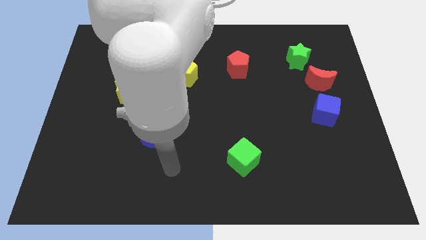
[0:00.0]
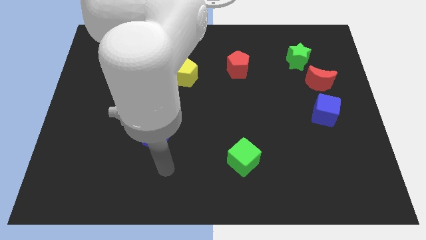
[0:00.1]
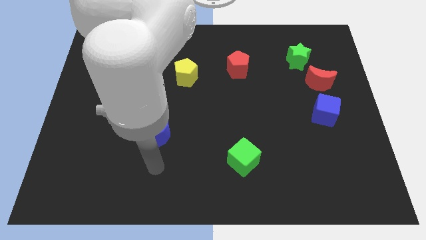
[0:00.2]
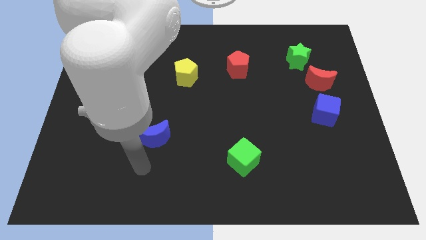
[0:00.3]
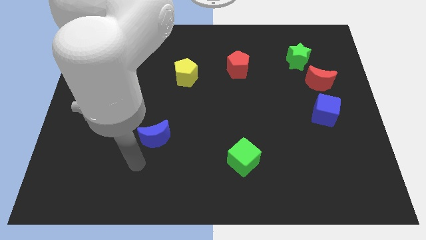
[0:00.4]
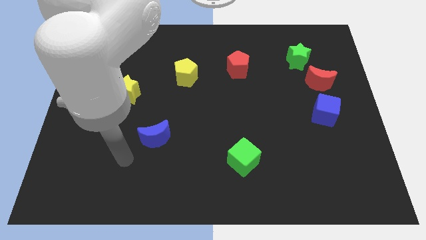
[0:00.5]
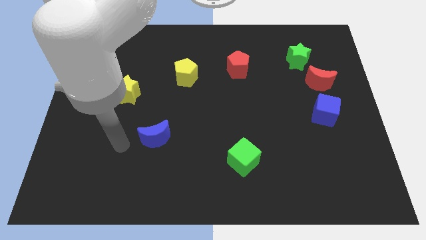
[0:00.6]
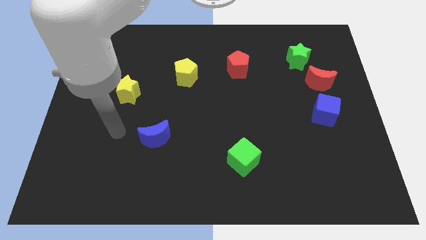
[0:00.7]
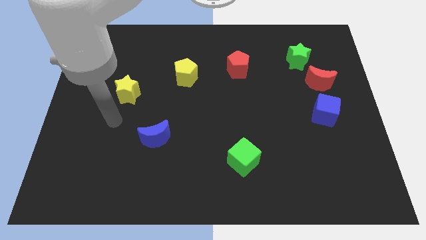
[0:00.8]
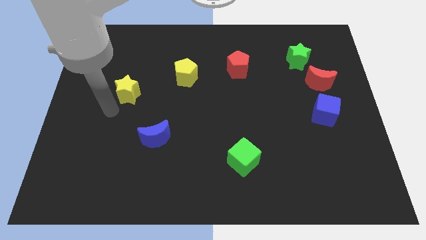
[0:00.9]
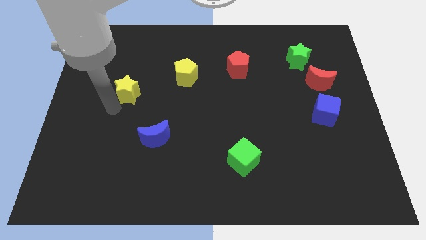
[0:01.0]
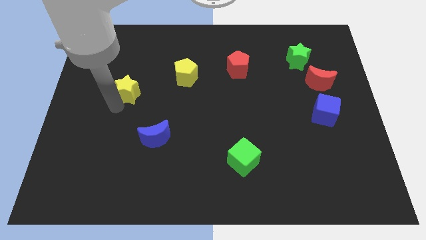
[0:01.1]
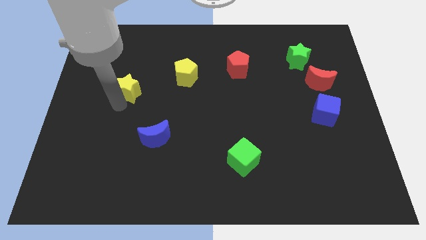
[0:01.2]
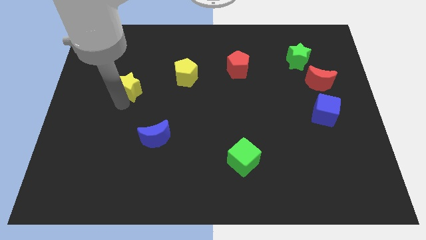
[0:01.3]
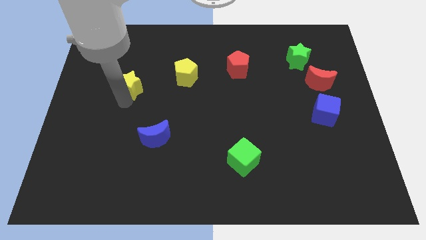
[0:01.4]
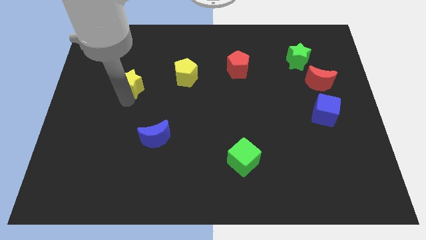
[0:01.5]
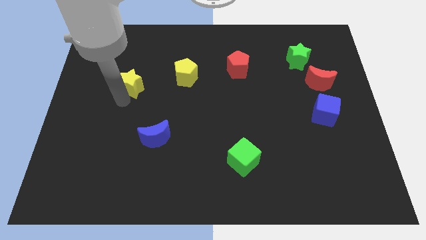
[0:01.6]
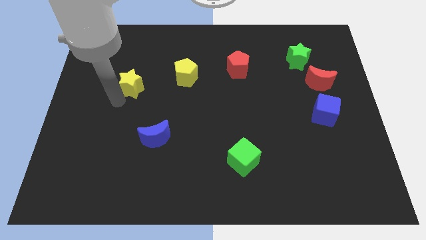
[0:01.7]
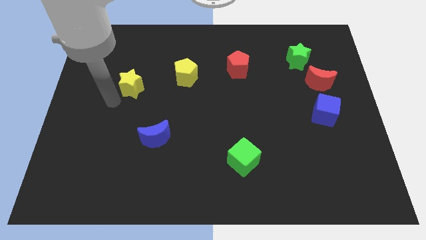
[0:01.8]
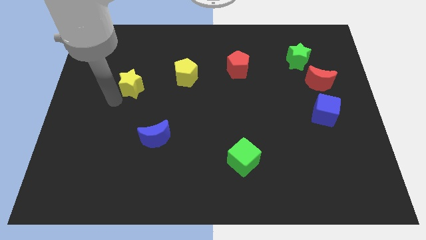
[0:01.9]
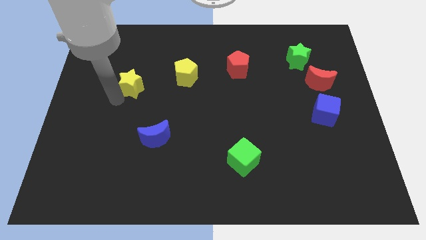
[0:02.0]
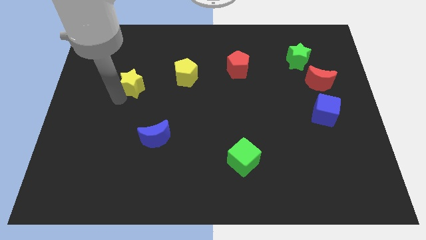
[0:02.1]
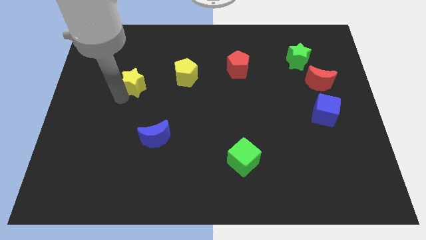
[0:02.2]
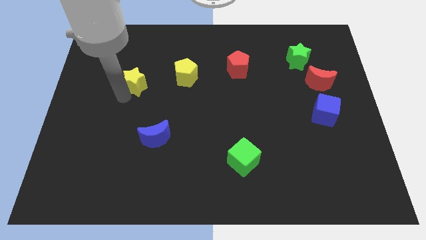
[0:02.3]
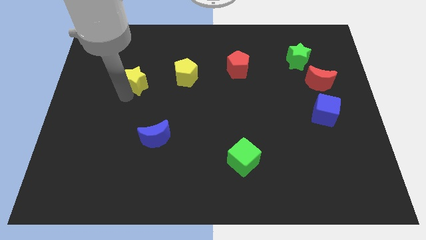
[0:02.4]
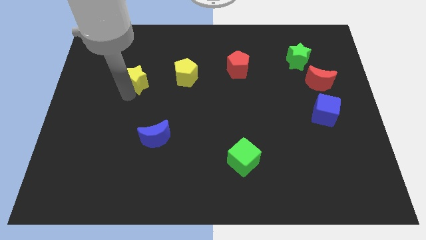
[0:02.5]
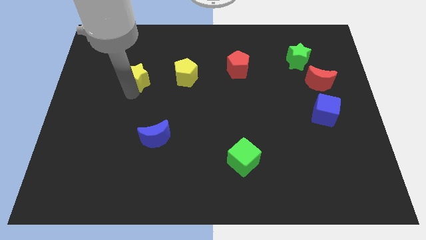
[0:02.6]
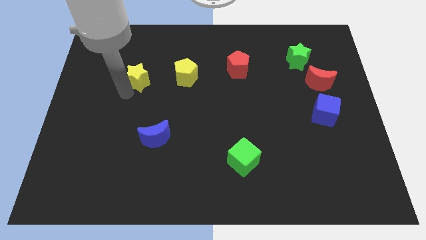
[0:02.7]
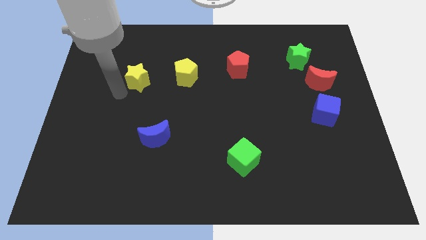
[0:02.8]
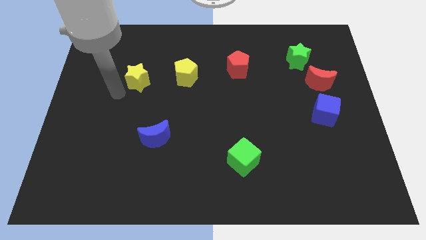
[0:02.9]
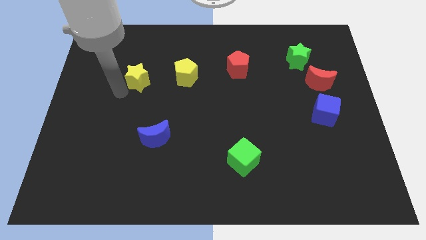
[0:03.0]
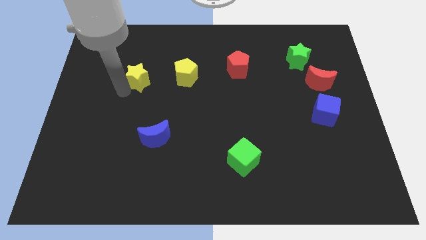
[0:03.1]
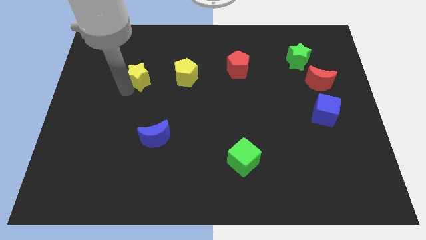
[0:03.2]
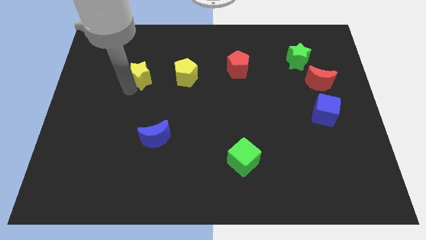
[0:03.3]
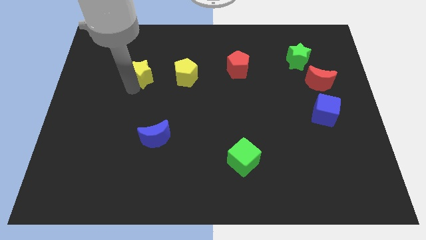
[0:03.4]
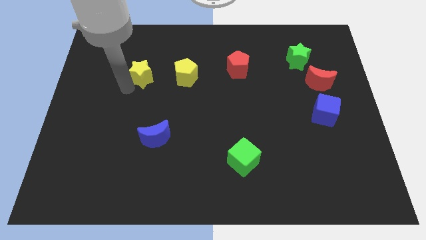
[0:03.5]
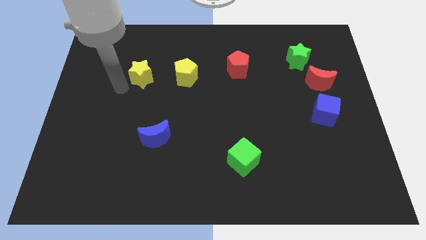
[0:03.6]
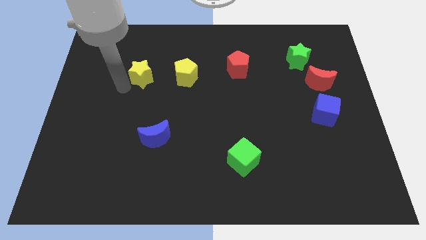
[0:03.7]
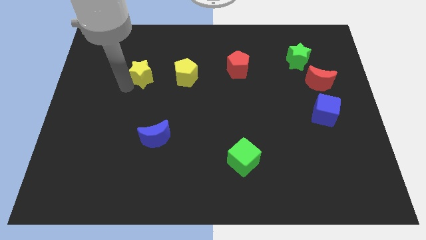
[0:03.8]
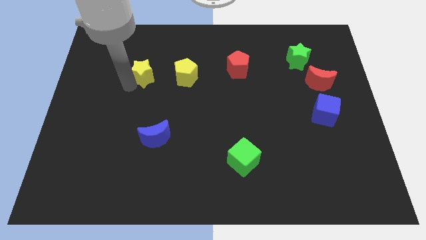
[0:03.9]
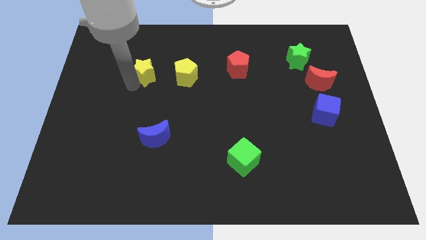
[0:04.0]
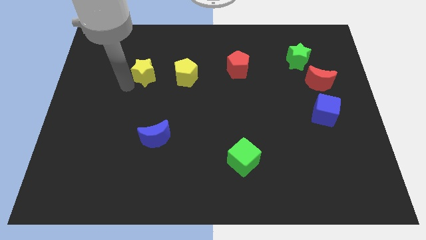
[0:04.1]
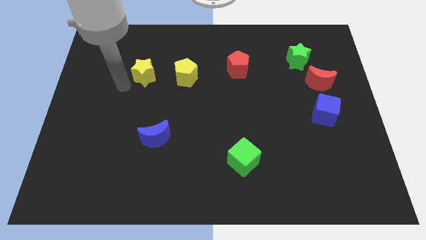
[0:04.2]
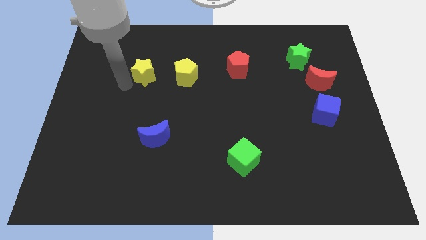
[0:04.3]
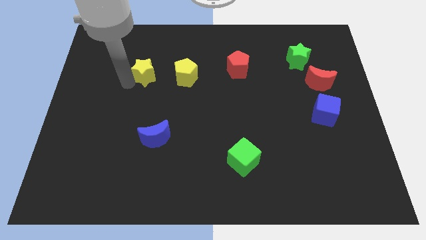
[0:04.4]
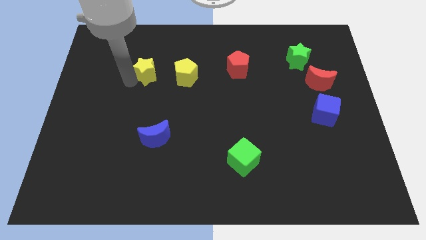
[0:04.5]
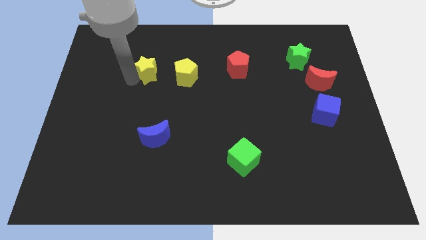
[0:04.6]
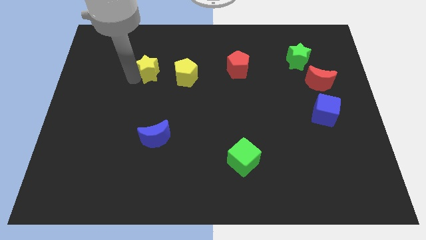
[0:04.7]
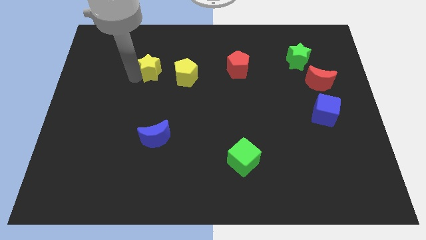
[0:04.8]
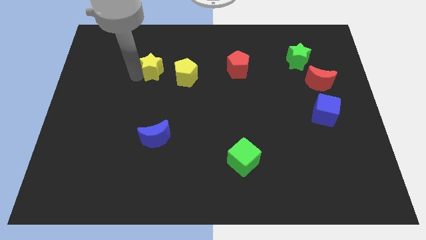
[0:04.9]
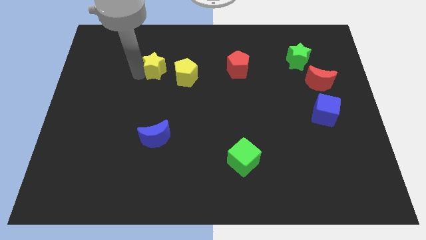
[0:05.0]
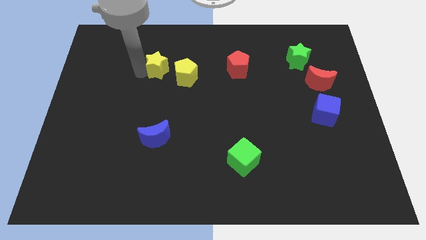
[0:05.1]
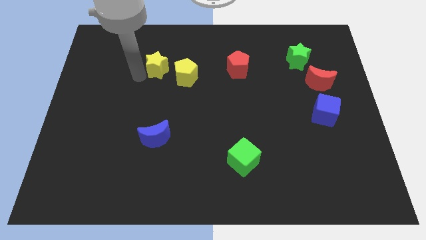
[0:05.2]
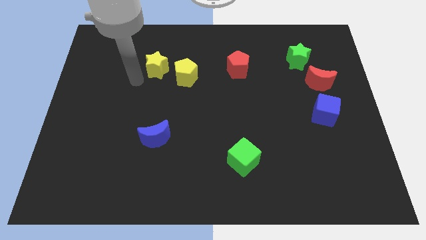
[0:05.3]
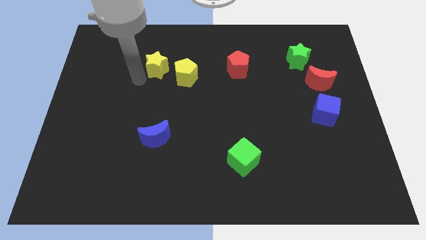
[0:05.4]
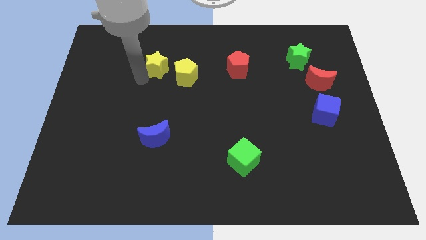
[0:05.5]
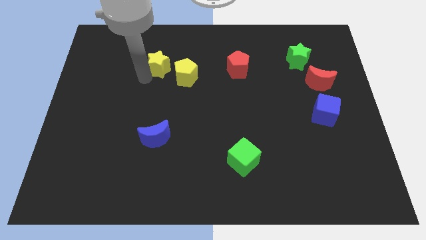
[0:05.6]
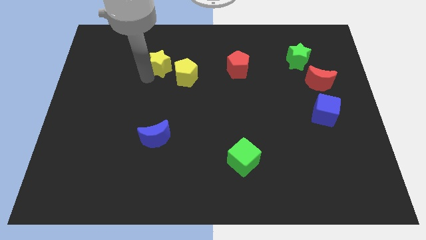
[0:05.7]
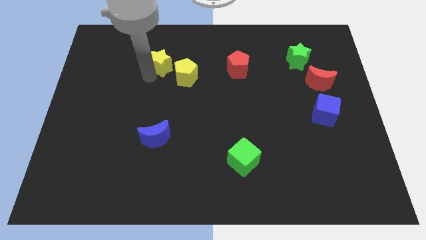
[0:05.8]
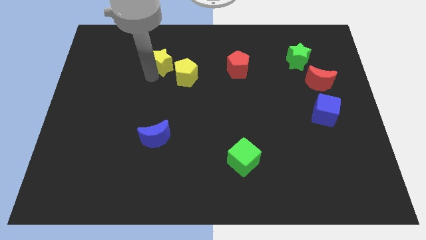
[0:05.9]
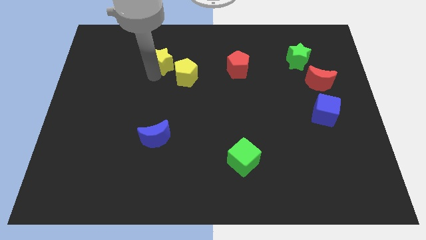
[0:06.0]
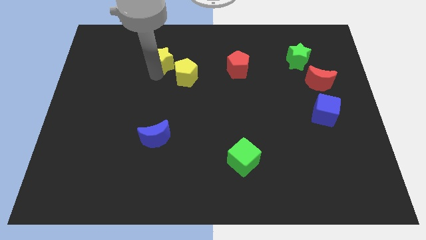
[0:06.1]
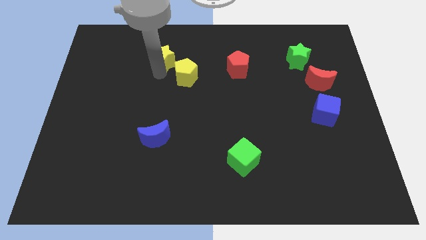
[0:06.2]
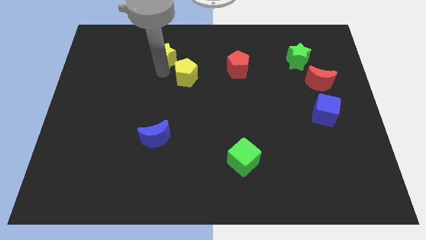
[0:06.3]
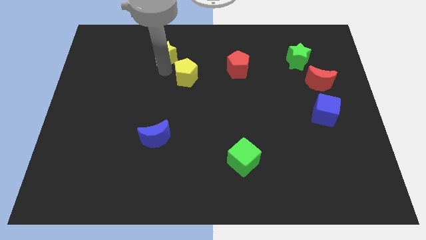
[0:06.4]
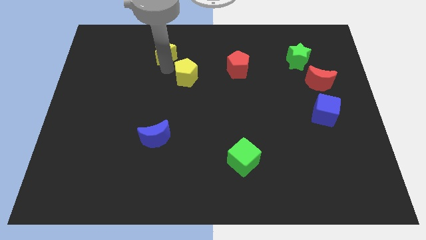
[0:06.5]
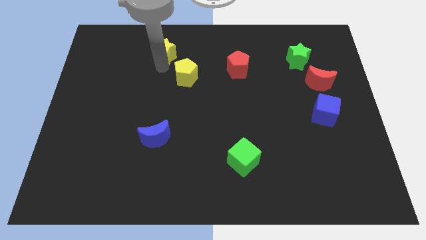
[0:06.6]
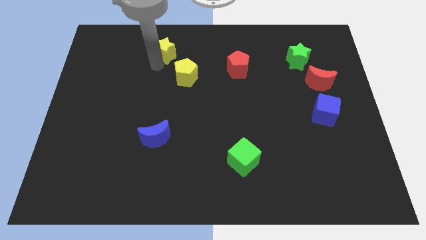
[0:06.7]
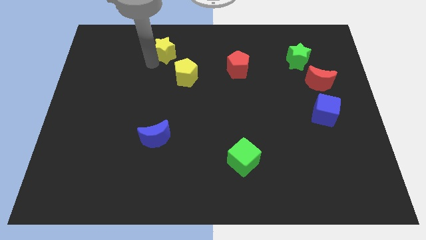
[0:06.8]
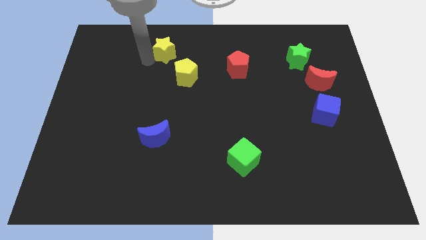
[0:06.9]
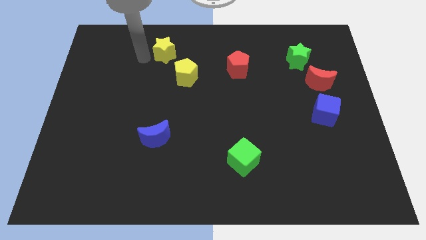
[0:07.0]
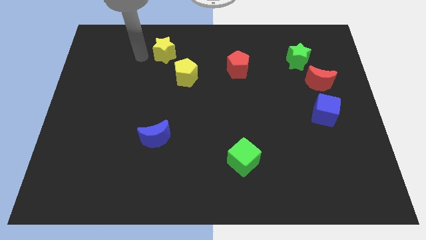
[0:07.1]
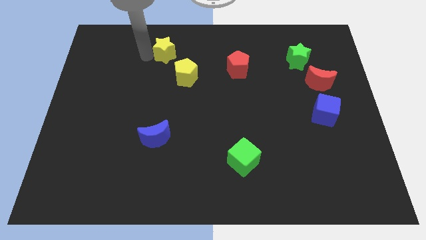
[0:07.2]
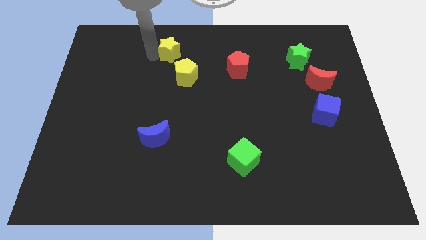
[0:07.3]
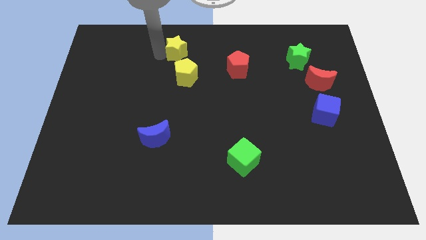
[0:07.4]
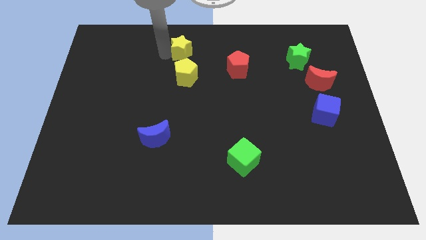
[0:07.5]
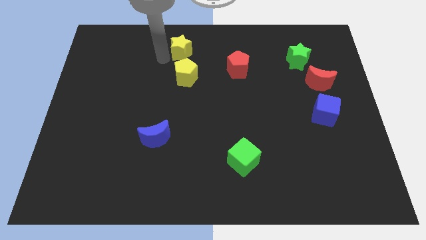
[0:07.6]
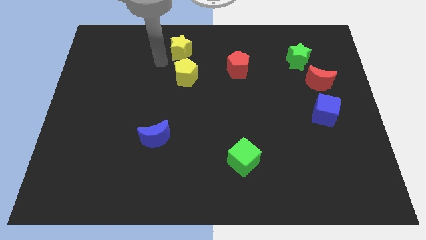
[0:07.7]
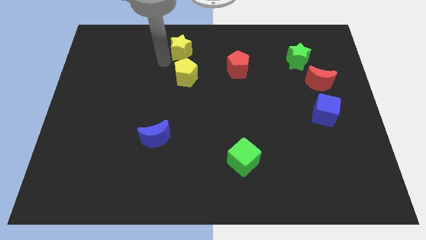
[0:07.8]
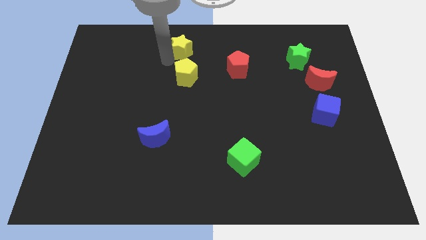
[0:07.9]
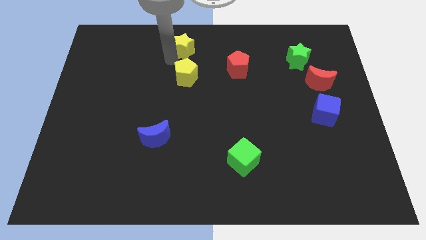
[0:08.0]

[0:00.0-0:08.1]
put the yellow star to the towards your base
